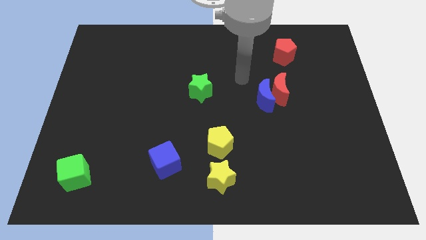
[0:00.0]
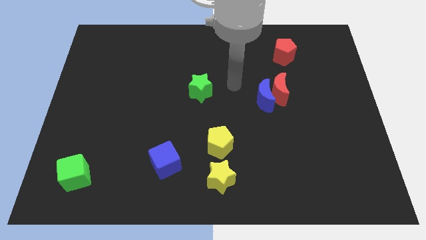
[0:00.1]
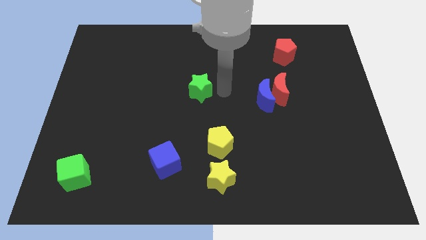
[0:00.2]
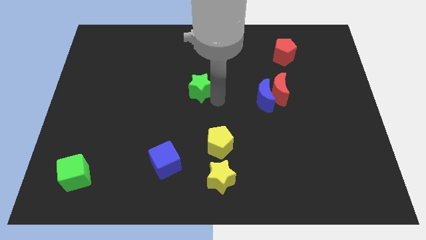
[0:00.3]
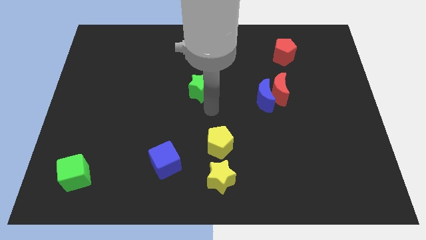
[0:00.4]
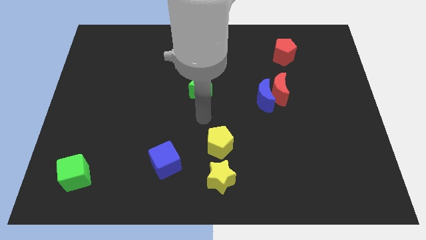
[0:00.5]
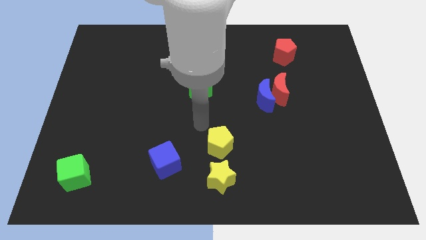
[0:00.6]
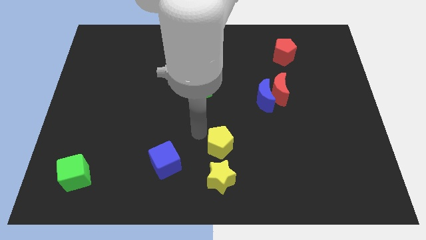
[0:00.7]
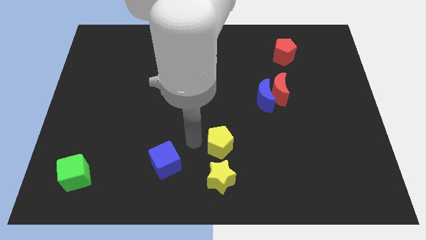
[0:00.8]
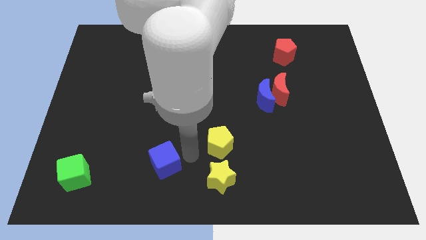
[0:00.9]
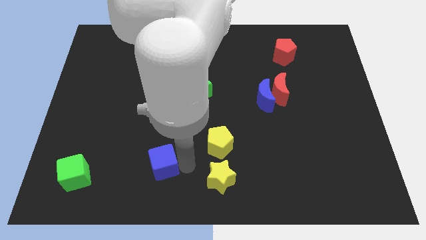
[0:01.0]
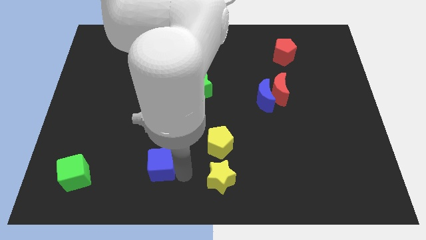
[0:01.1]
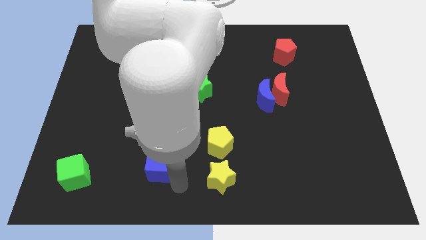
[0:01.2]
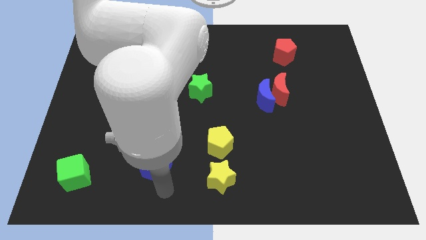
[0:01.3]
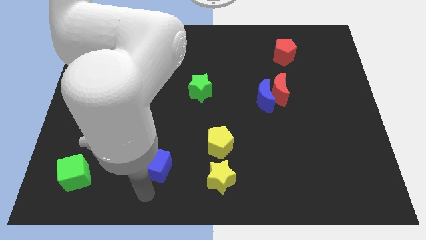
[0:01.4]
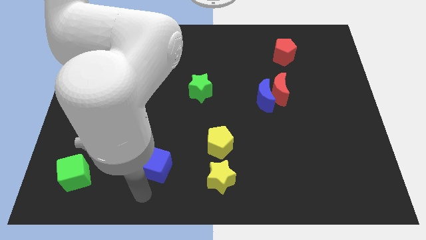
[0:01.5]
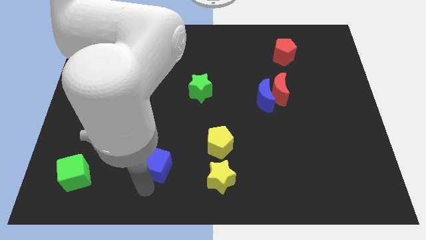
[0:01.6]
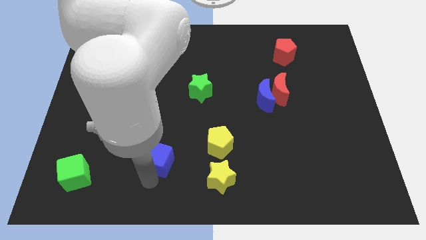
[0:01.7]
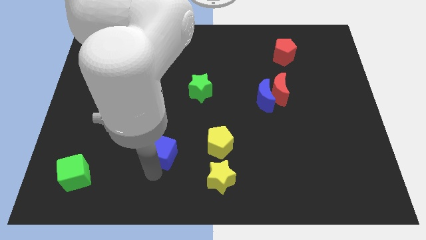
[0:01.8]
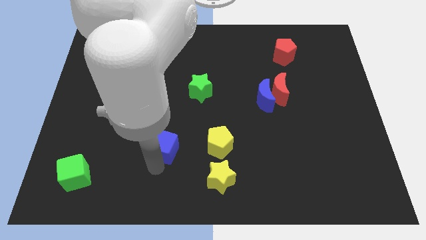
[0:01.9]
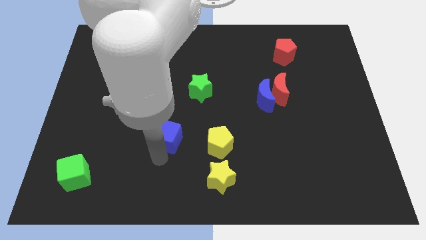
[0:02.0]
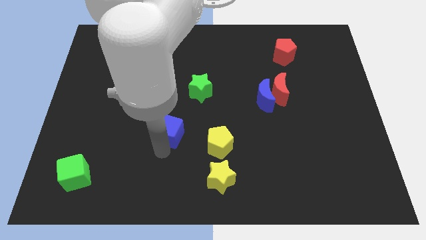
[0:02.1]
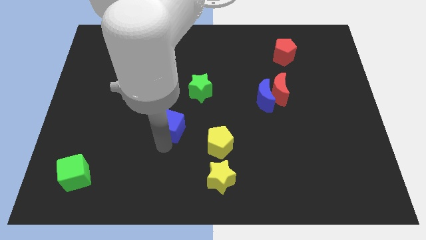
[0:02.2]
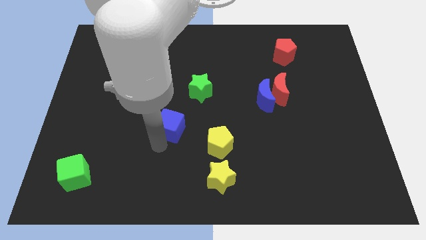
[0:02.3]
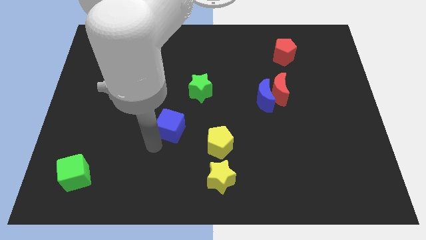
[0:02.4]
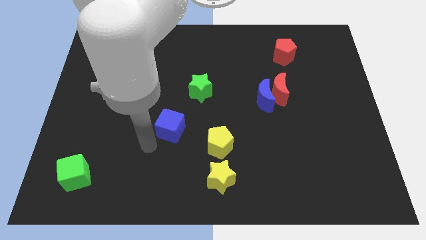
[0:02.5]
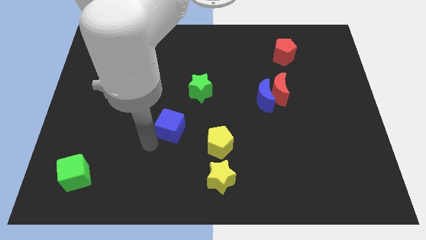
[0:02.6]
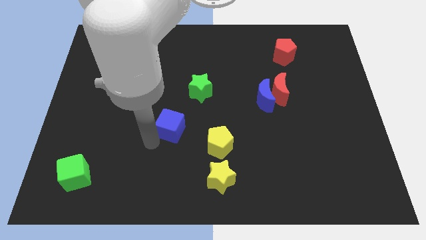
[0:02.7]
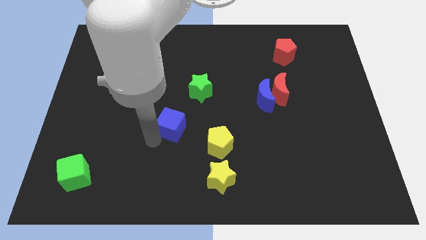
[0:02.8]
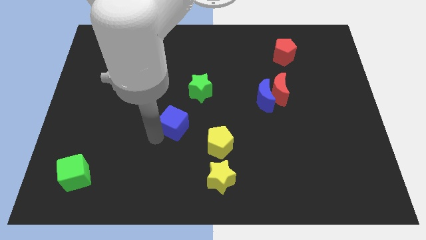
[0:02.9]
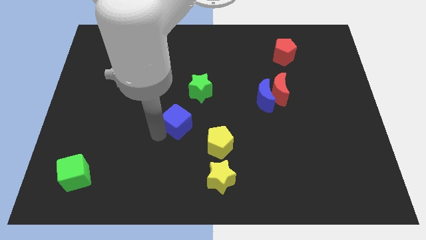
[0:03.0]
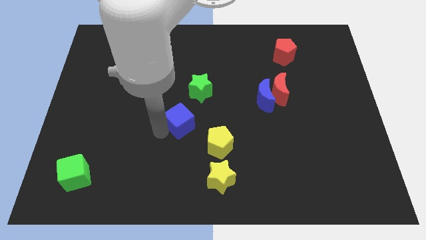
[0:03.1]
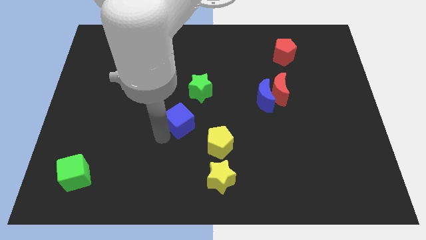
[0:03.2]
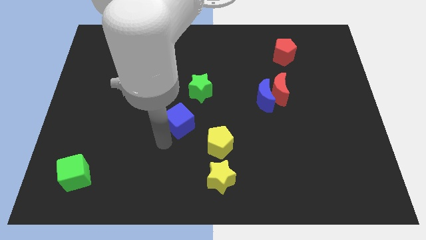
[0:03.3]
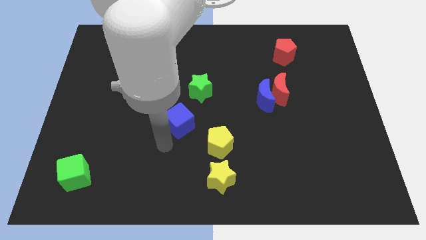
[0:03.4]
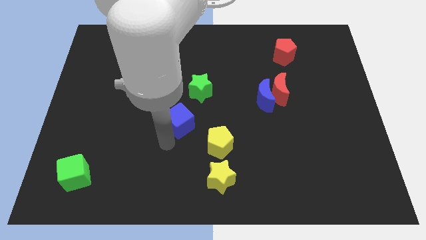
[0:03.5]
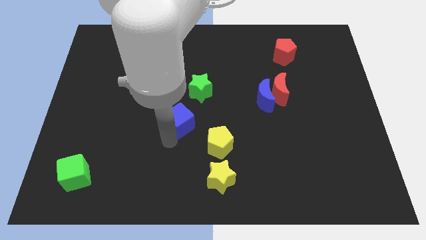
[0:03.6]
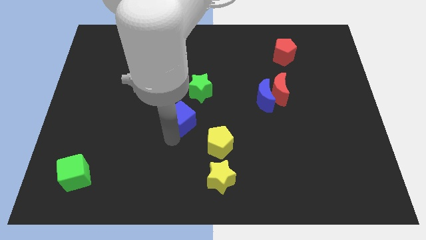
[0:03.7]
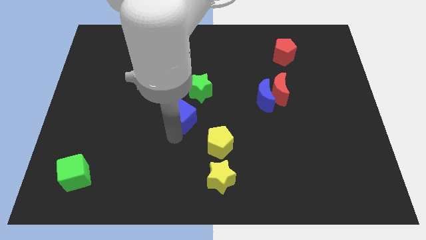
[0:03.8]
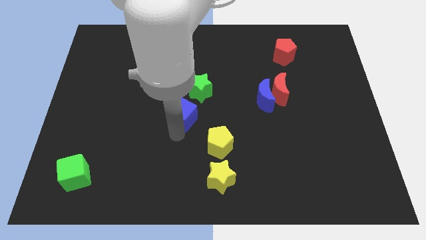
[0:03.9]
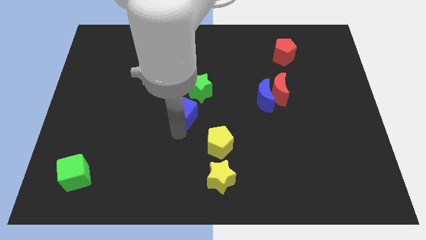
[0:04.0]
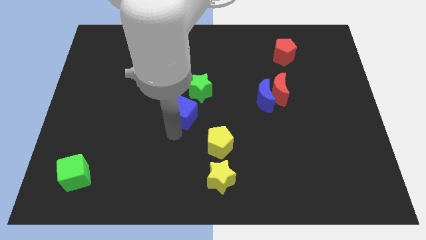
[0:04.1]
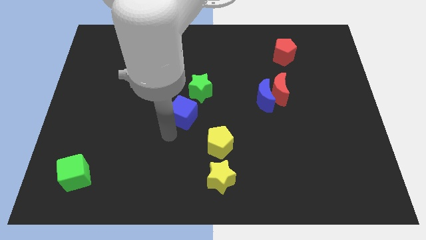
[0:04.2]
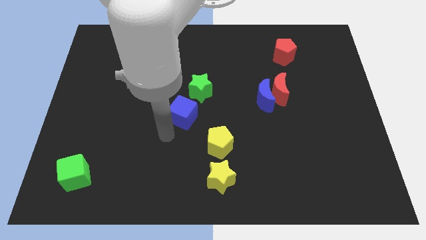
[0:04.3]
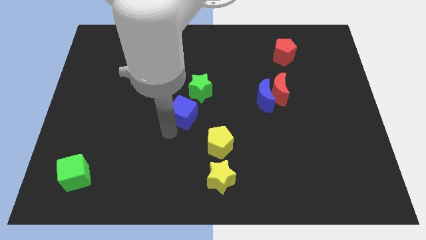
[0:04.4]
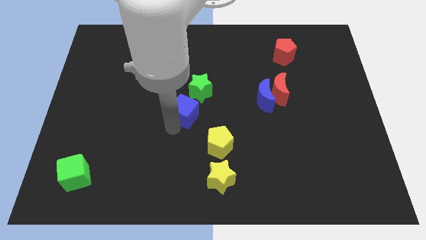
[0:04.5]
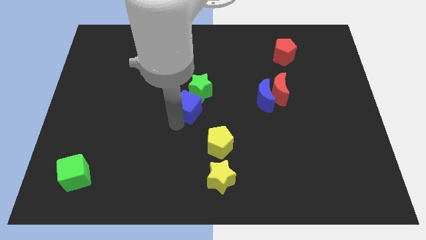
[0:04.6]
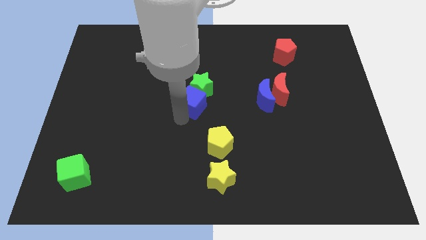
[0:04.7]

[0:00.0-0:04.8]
move the blue cube towards the green star

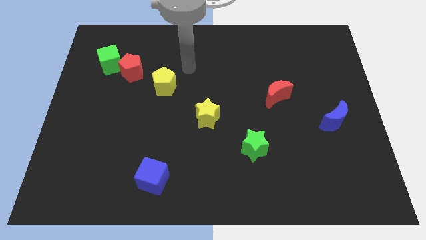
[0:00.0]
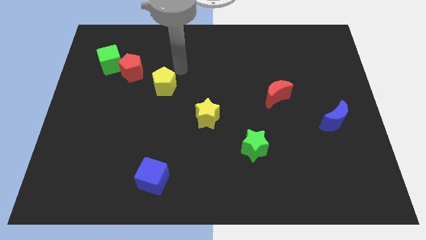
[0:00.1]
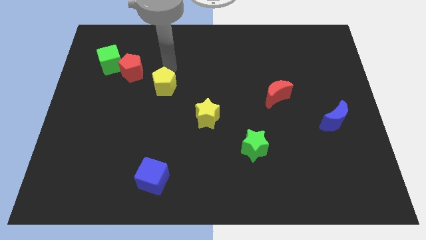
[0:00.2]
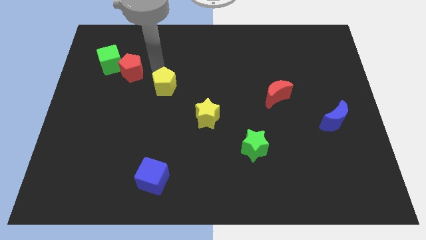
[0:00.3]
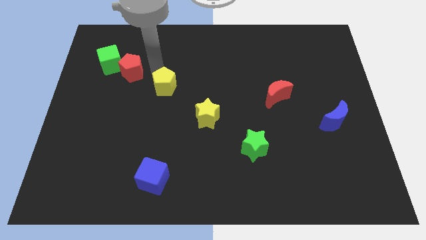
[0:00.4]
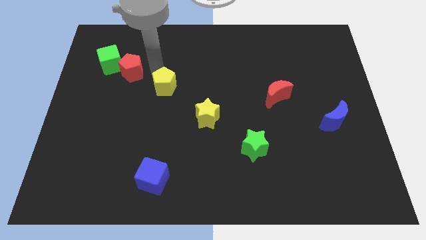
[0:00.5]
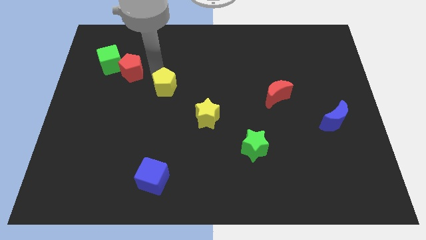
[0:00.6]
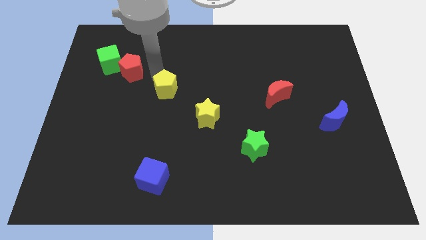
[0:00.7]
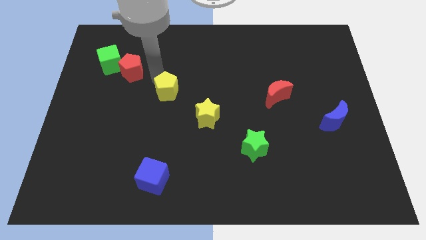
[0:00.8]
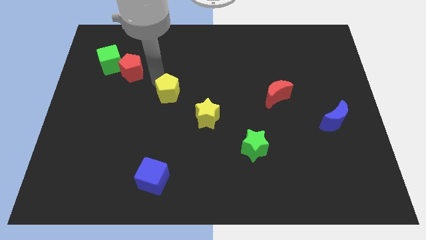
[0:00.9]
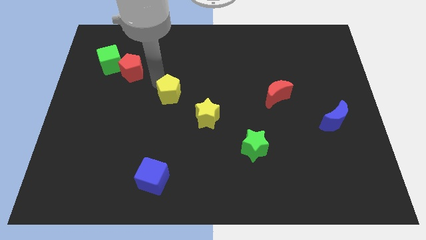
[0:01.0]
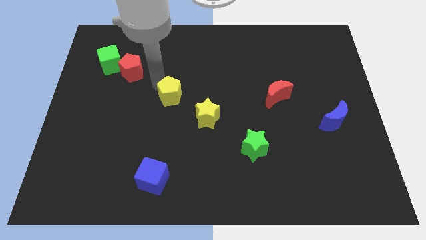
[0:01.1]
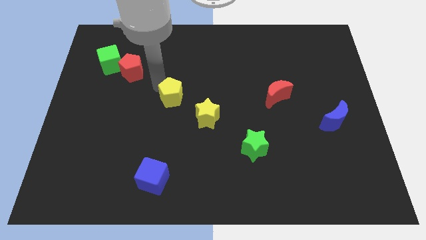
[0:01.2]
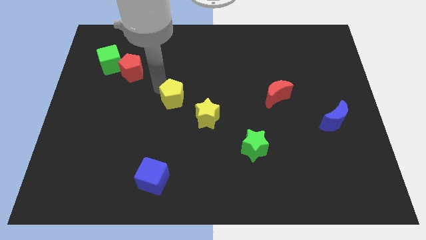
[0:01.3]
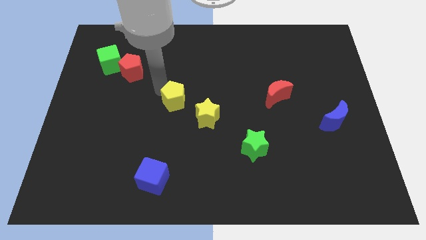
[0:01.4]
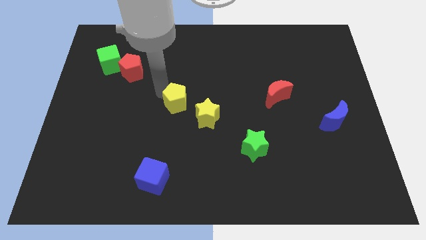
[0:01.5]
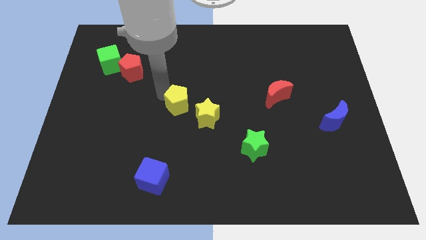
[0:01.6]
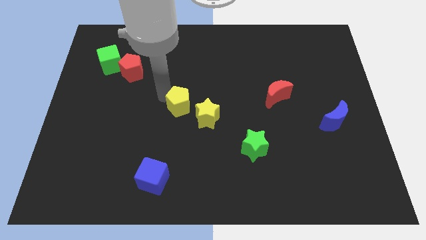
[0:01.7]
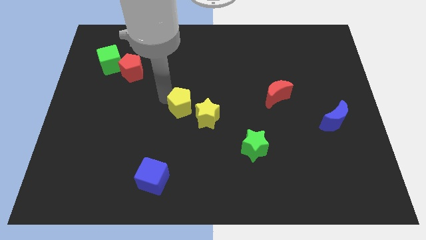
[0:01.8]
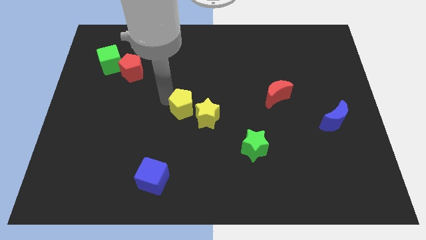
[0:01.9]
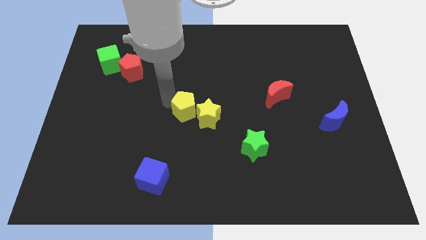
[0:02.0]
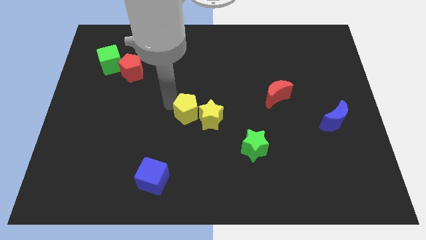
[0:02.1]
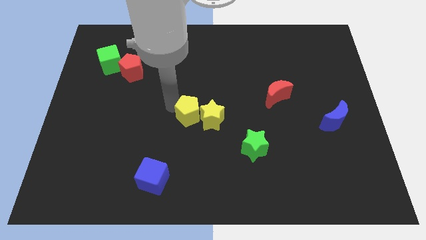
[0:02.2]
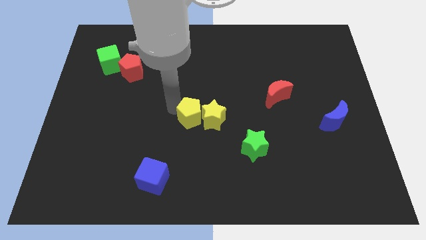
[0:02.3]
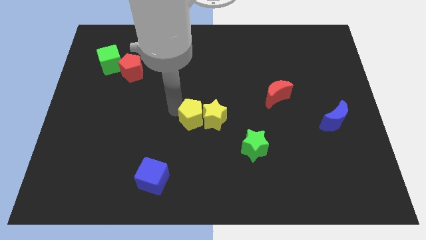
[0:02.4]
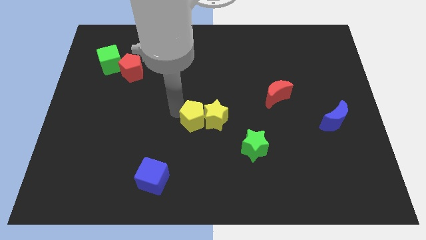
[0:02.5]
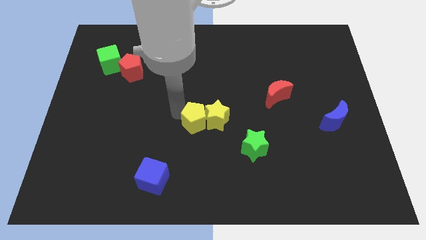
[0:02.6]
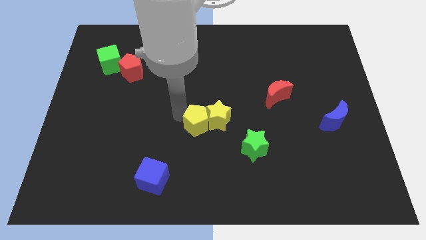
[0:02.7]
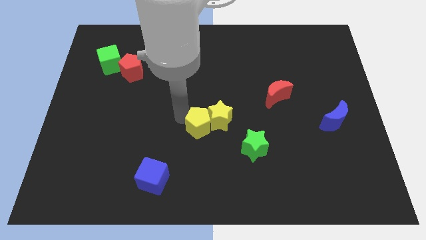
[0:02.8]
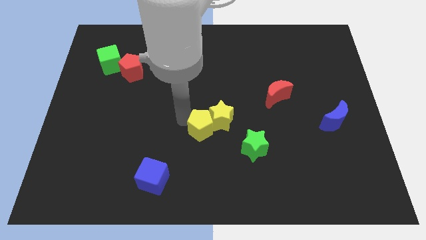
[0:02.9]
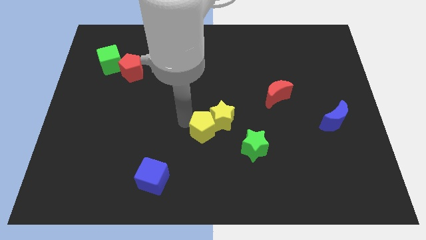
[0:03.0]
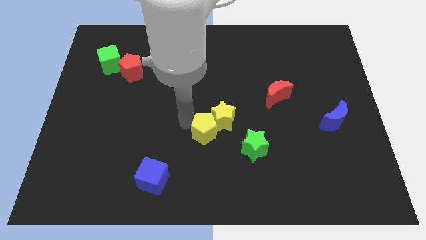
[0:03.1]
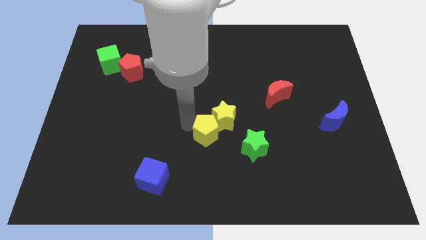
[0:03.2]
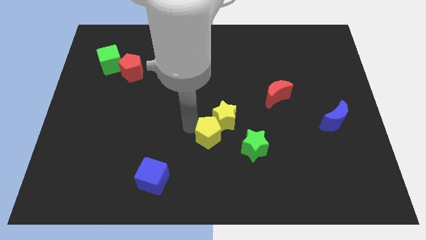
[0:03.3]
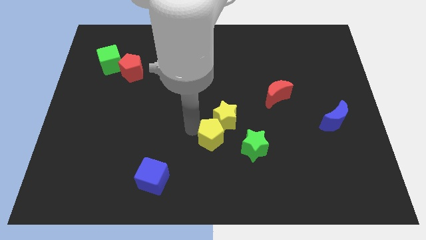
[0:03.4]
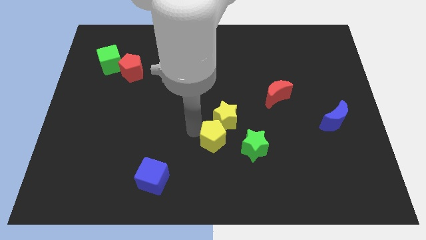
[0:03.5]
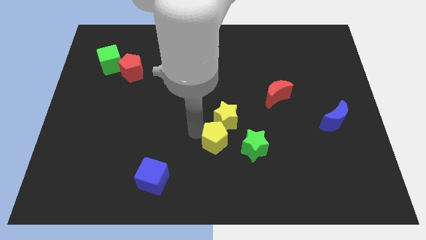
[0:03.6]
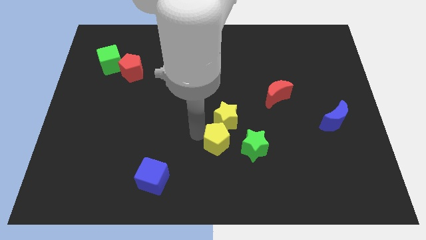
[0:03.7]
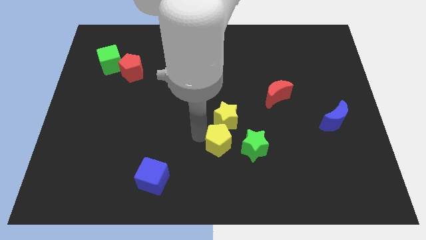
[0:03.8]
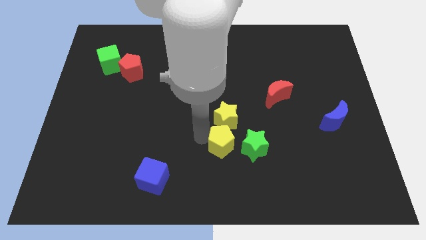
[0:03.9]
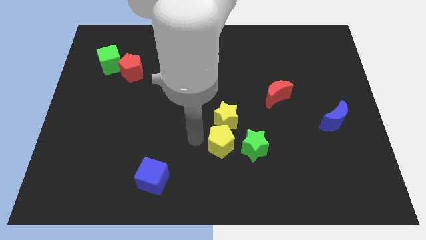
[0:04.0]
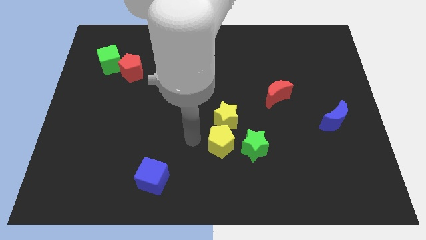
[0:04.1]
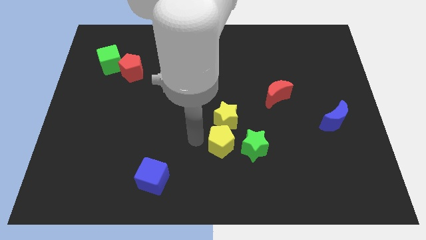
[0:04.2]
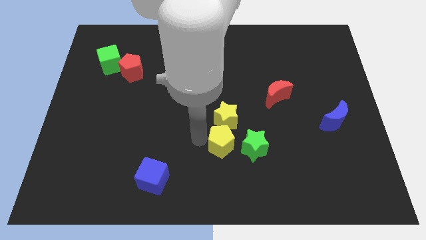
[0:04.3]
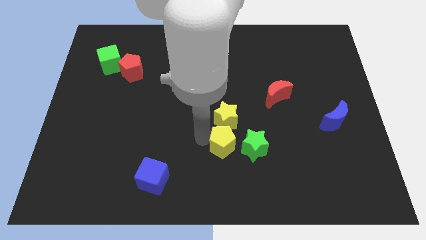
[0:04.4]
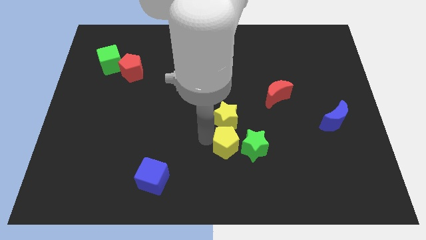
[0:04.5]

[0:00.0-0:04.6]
slide the yellow pentagon to the green star
